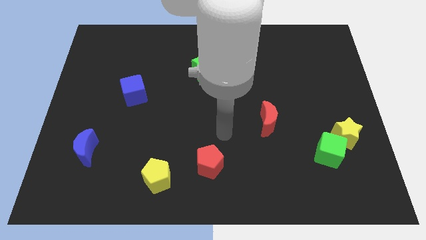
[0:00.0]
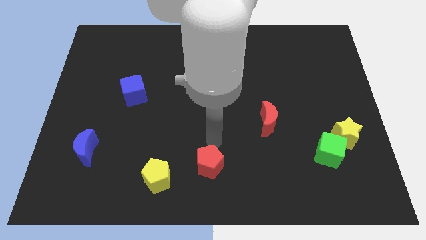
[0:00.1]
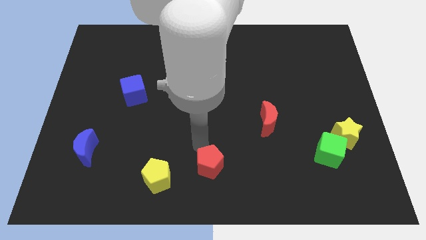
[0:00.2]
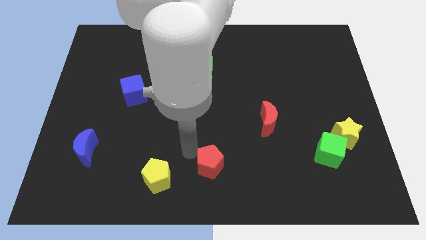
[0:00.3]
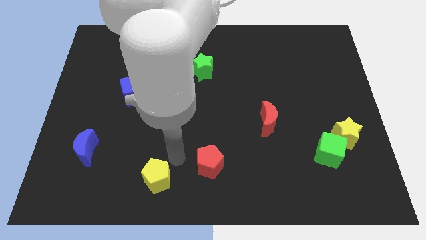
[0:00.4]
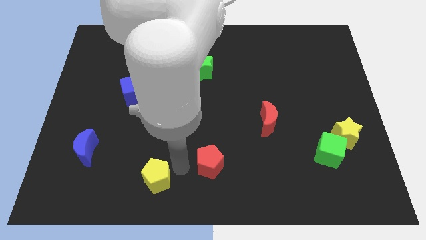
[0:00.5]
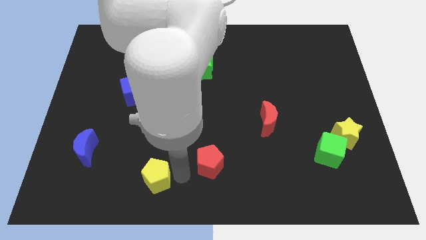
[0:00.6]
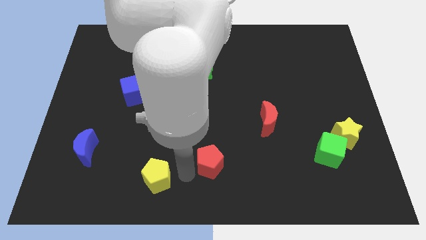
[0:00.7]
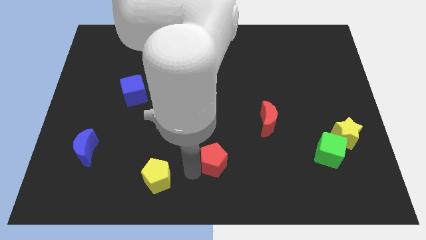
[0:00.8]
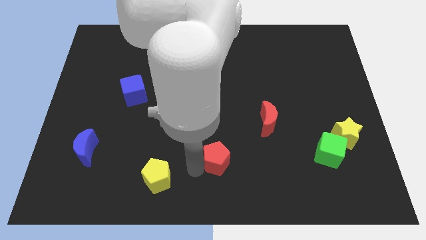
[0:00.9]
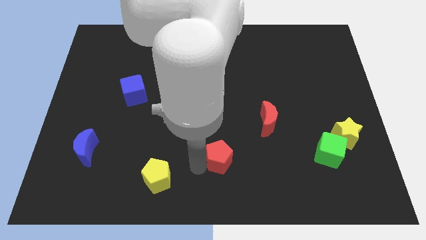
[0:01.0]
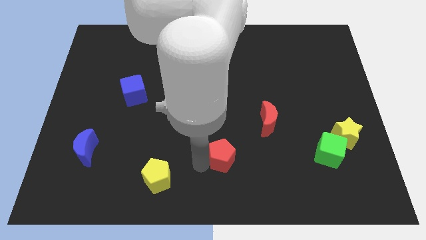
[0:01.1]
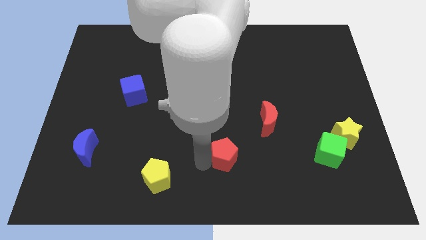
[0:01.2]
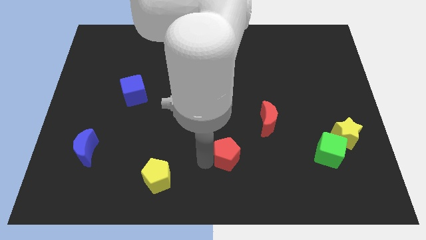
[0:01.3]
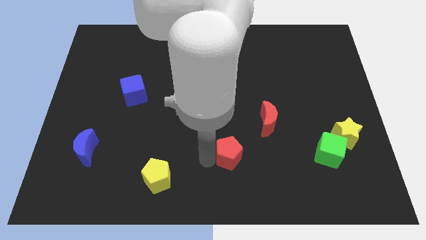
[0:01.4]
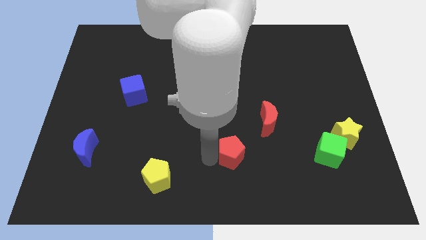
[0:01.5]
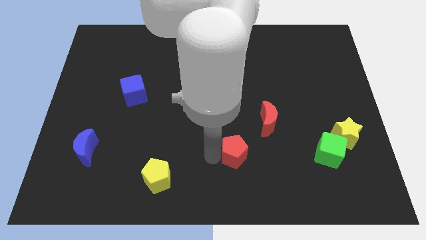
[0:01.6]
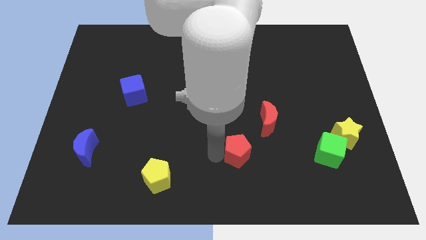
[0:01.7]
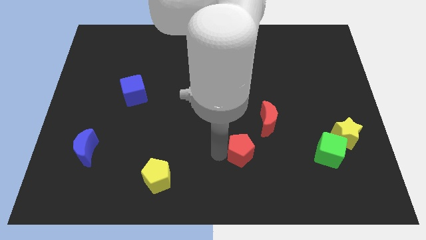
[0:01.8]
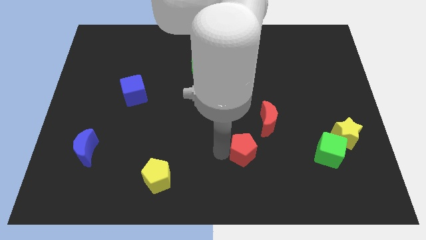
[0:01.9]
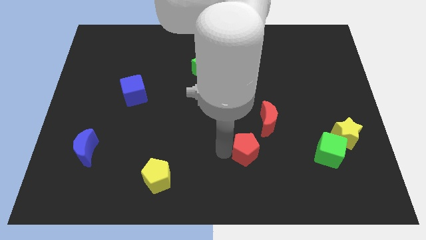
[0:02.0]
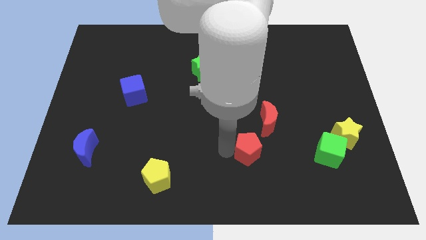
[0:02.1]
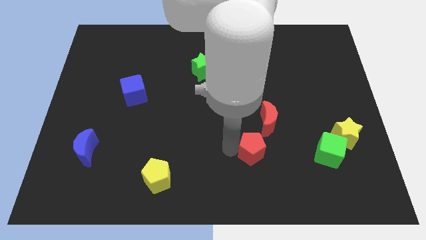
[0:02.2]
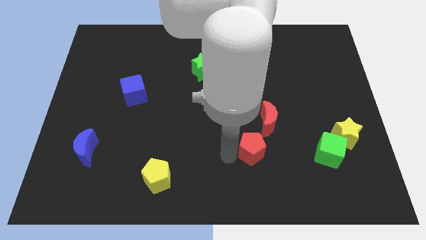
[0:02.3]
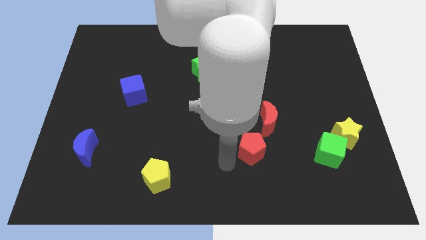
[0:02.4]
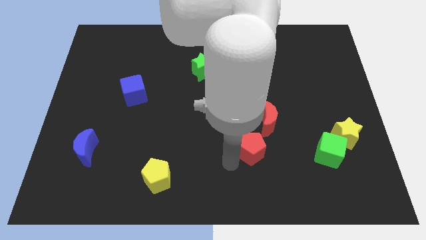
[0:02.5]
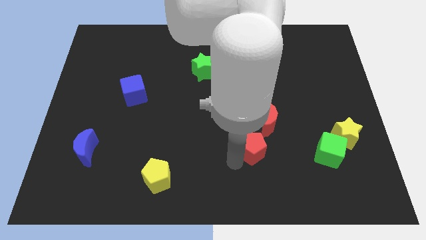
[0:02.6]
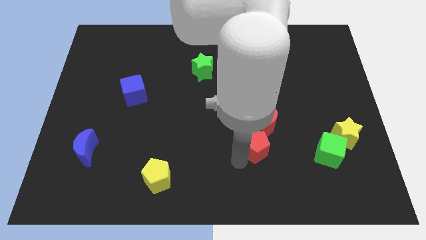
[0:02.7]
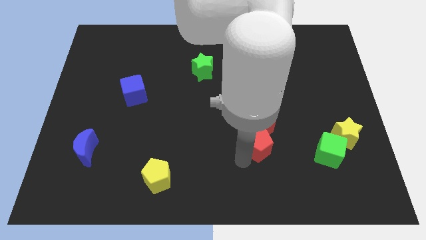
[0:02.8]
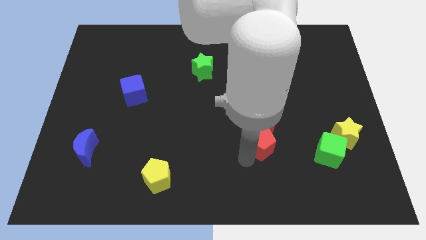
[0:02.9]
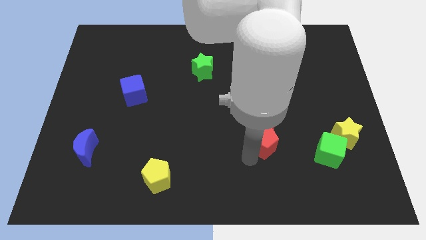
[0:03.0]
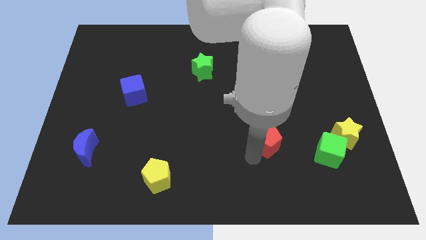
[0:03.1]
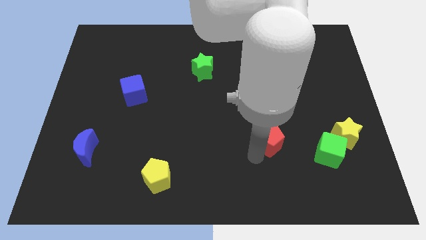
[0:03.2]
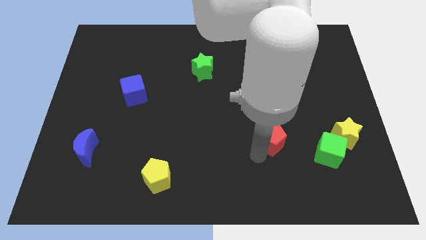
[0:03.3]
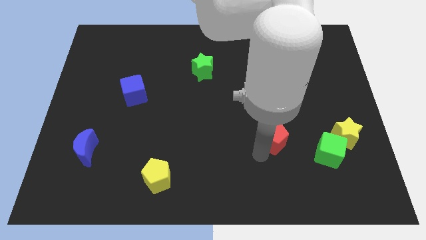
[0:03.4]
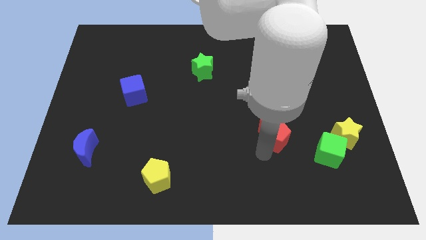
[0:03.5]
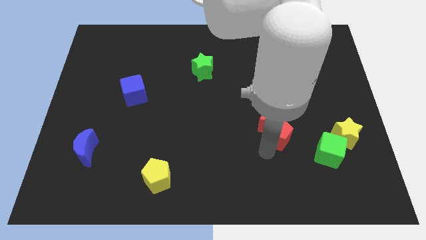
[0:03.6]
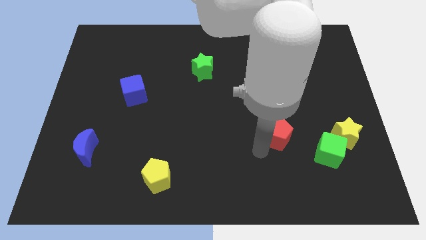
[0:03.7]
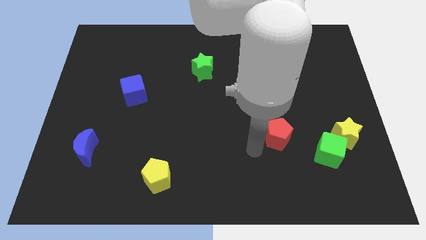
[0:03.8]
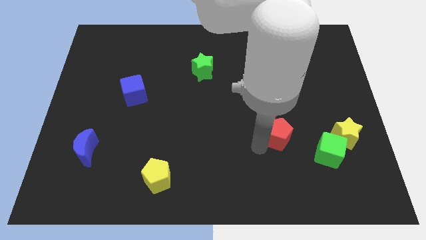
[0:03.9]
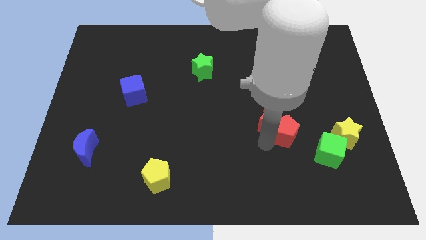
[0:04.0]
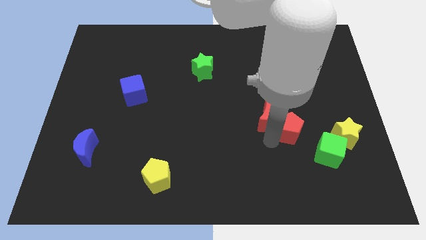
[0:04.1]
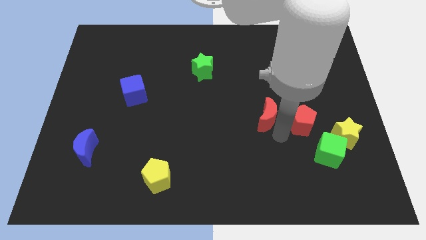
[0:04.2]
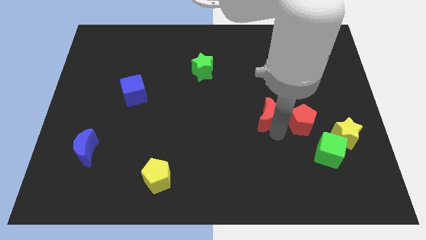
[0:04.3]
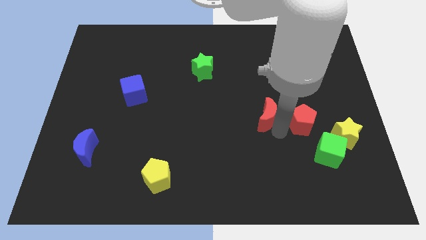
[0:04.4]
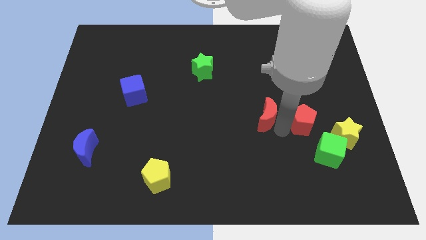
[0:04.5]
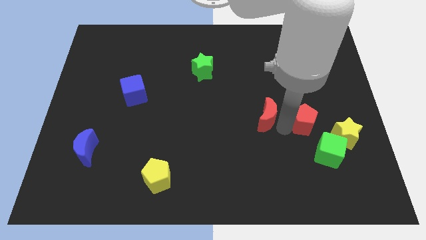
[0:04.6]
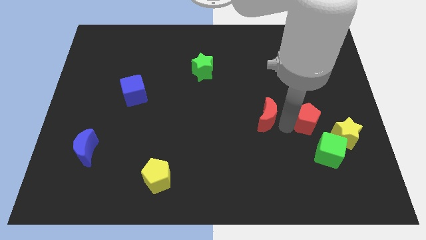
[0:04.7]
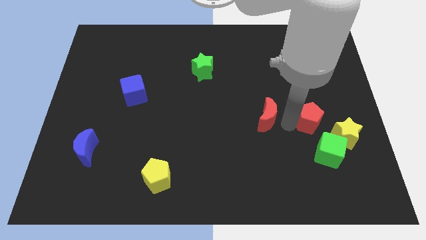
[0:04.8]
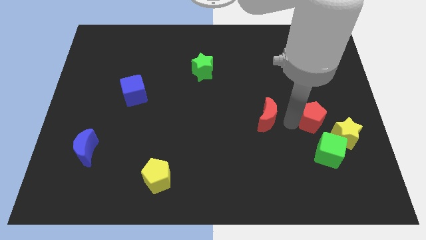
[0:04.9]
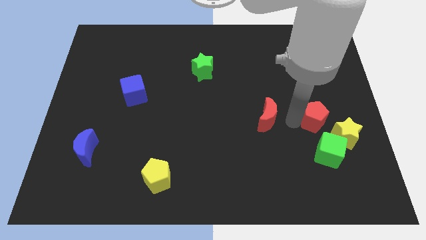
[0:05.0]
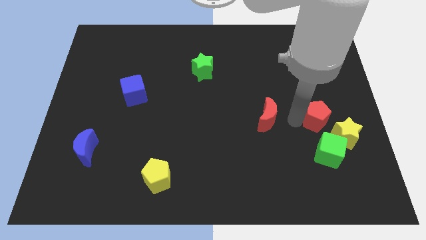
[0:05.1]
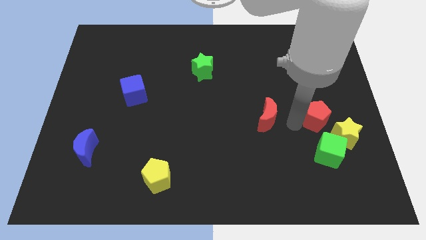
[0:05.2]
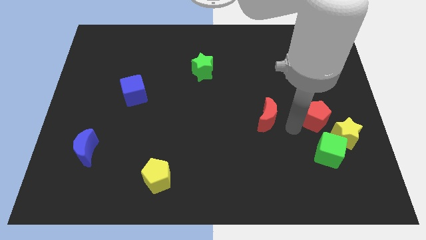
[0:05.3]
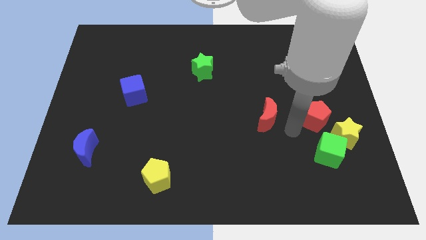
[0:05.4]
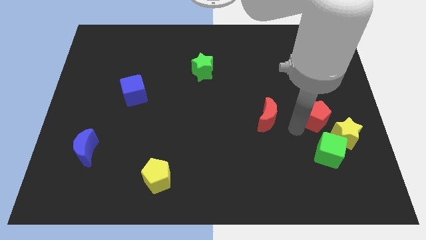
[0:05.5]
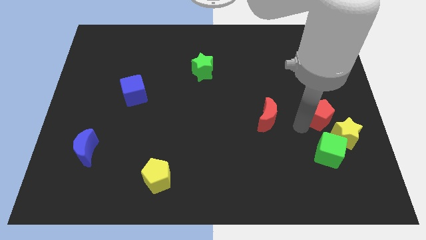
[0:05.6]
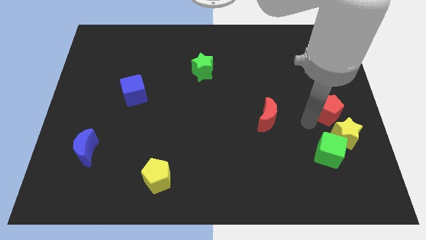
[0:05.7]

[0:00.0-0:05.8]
put the red pentagon to the right side of the board

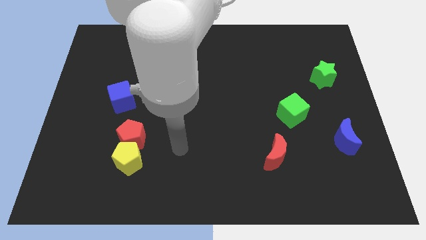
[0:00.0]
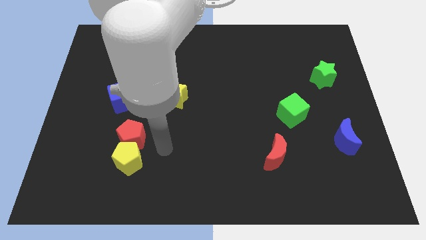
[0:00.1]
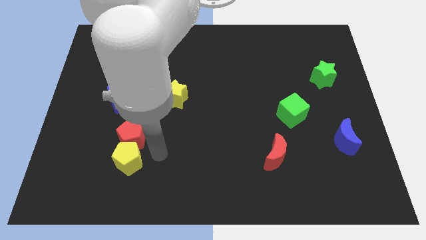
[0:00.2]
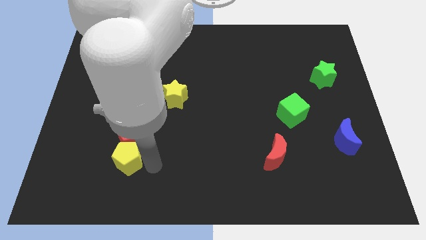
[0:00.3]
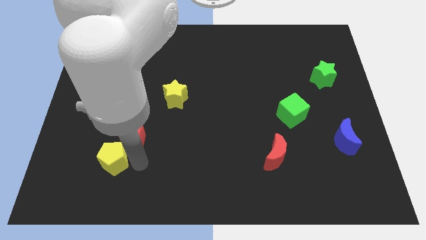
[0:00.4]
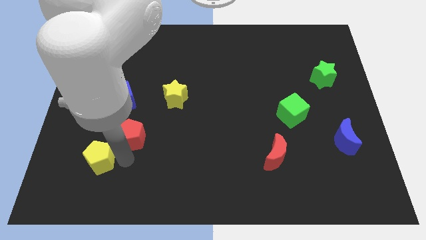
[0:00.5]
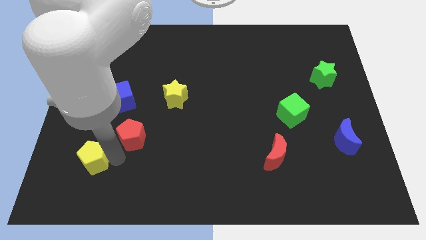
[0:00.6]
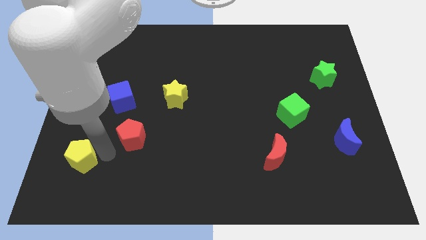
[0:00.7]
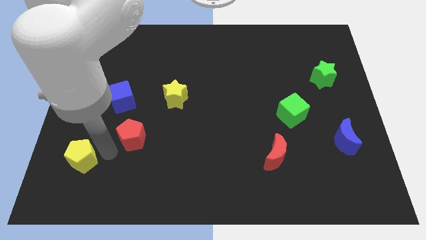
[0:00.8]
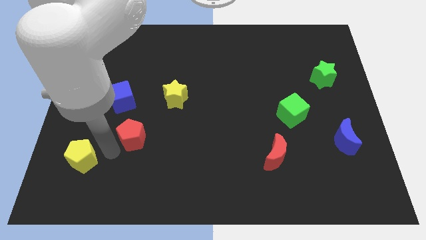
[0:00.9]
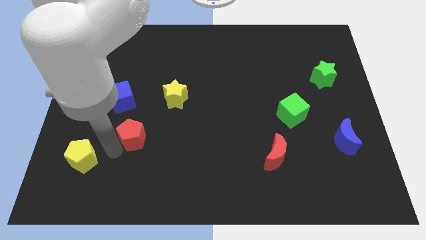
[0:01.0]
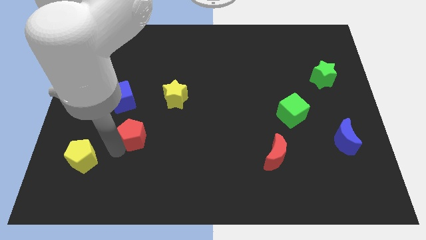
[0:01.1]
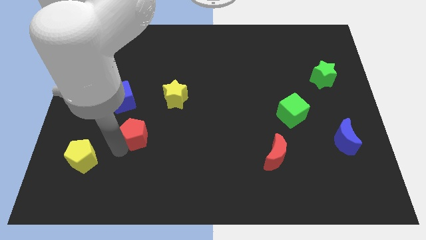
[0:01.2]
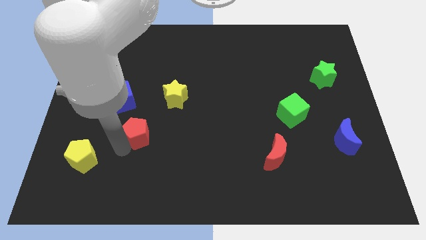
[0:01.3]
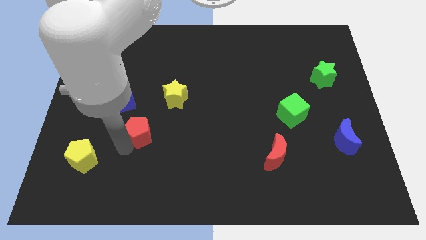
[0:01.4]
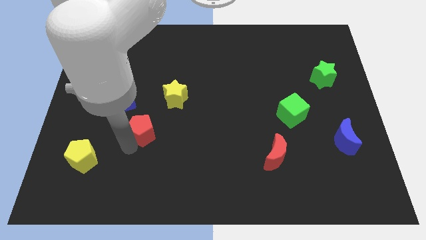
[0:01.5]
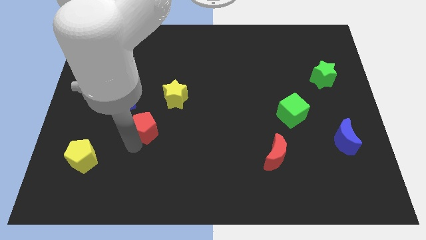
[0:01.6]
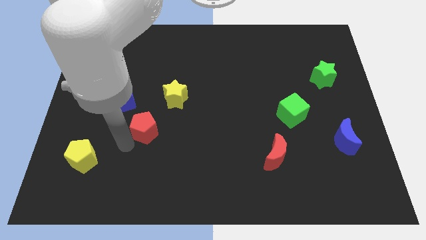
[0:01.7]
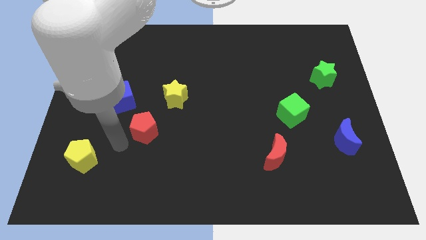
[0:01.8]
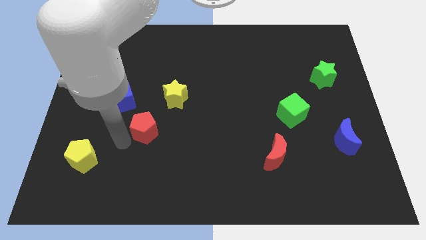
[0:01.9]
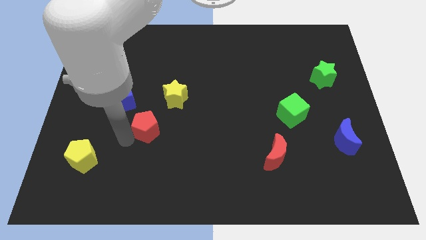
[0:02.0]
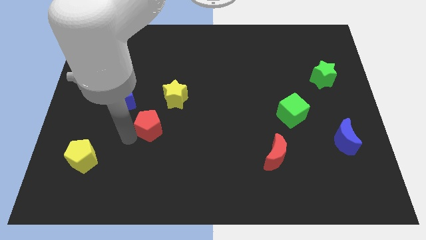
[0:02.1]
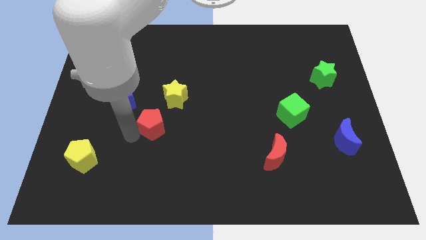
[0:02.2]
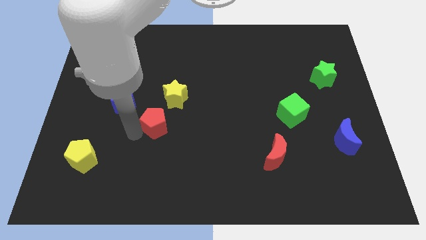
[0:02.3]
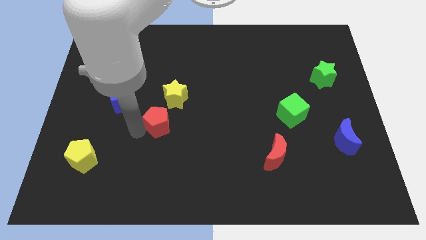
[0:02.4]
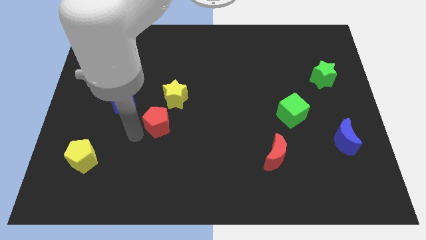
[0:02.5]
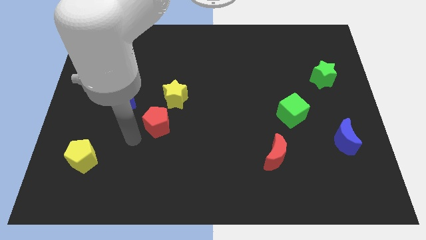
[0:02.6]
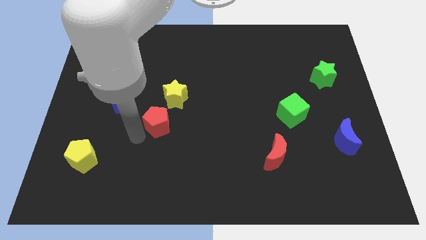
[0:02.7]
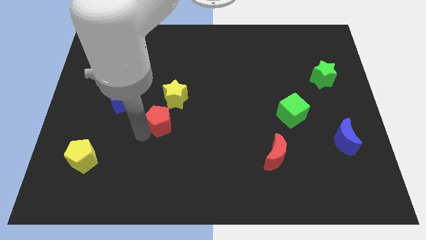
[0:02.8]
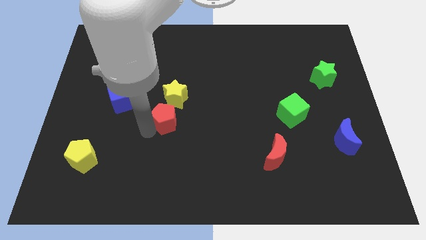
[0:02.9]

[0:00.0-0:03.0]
move the red pentagon to the center
